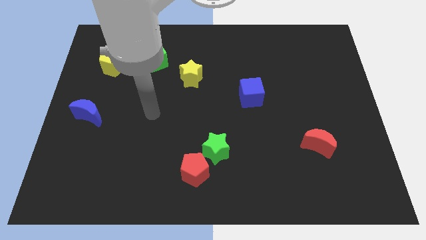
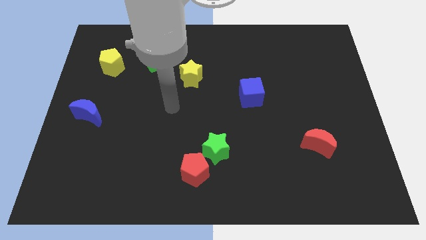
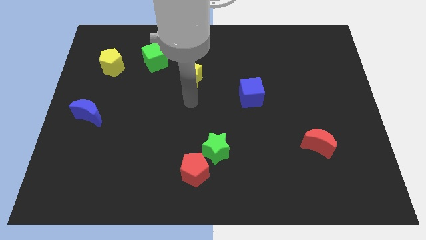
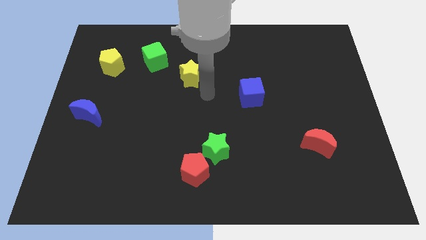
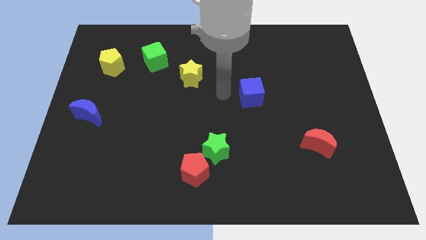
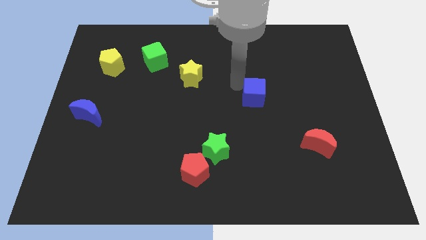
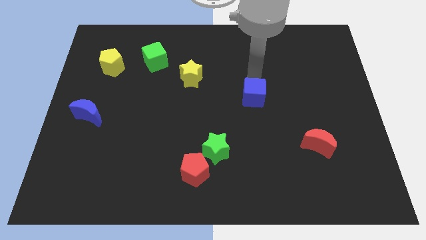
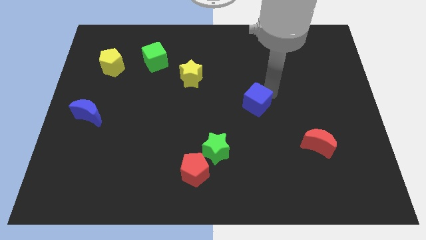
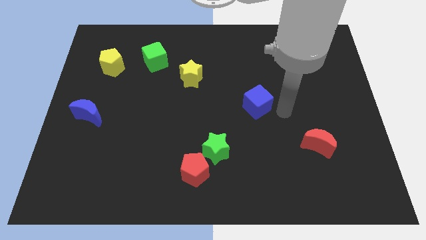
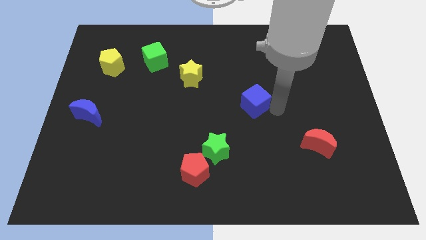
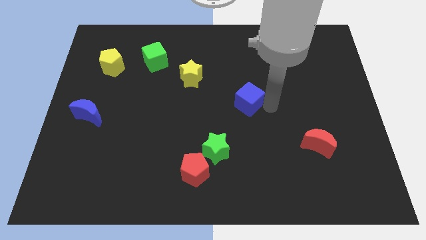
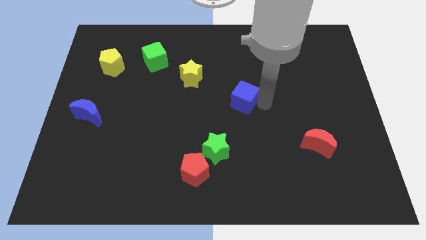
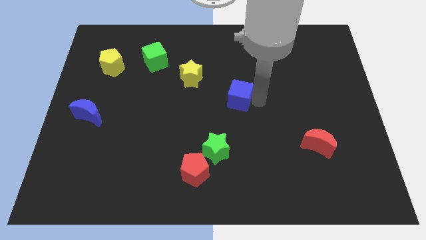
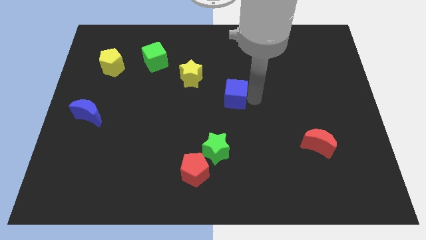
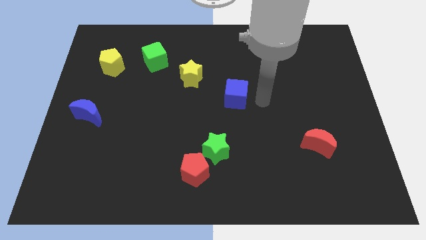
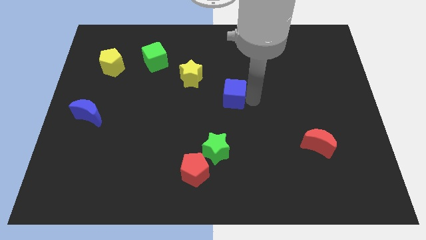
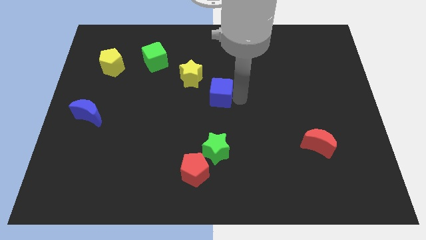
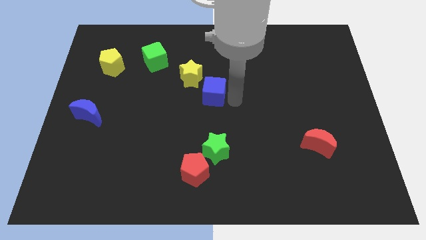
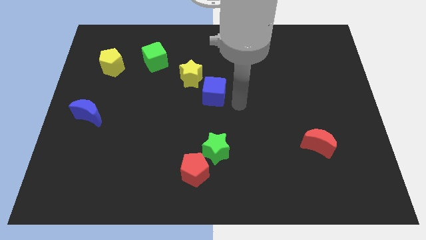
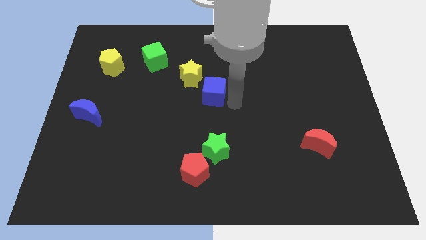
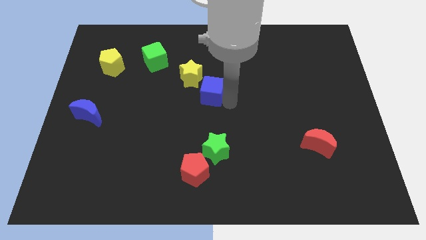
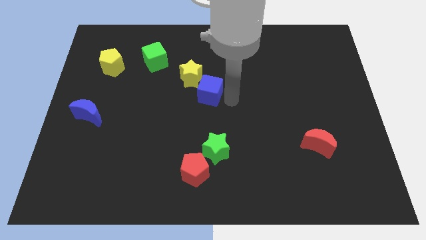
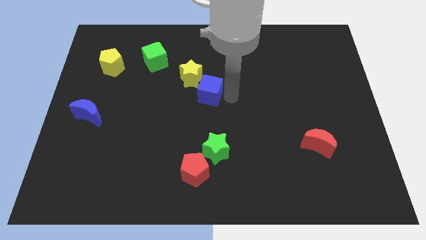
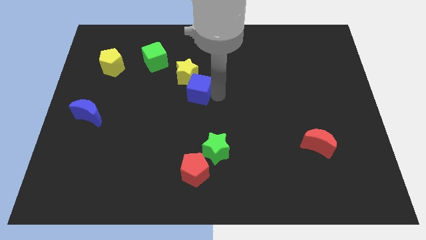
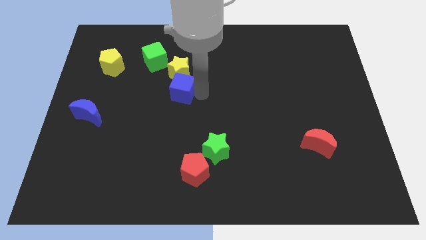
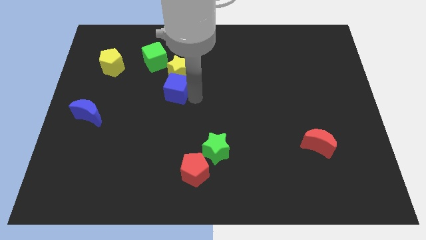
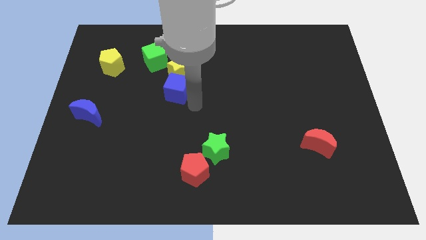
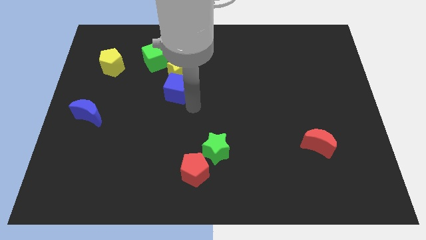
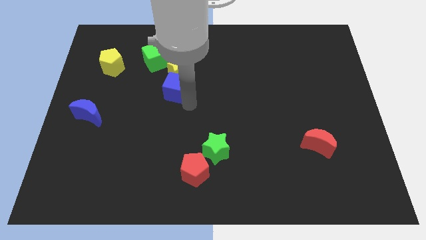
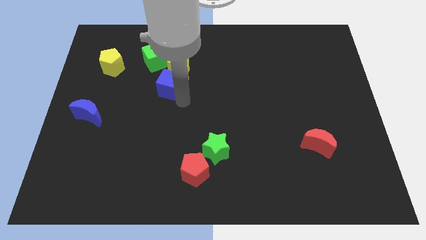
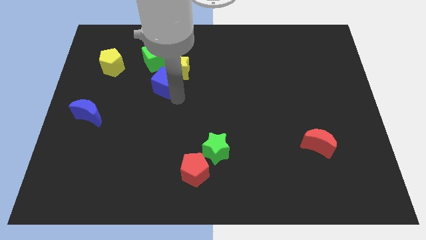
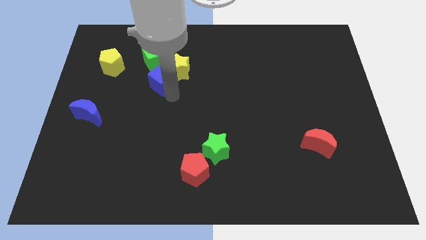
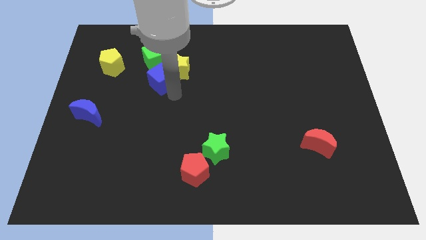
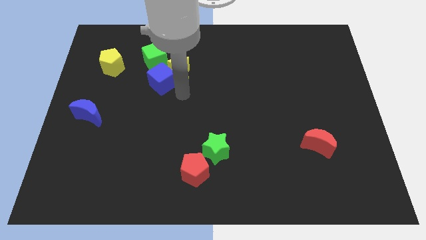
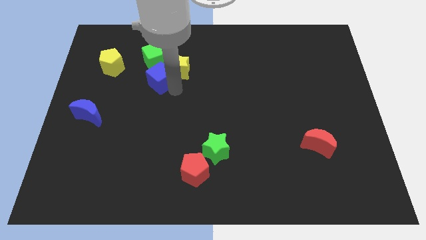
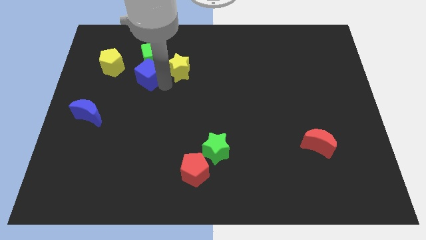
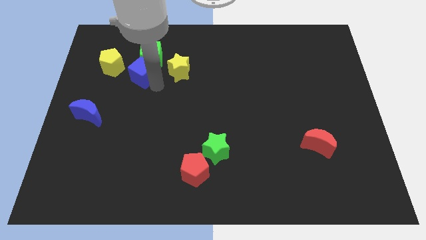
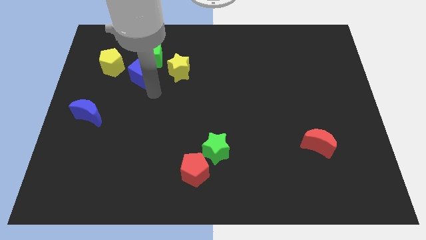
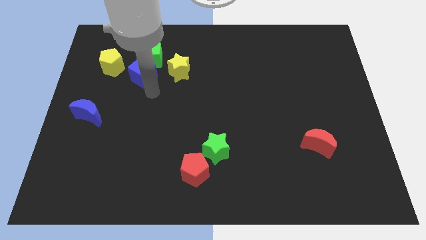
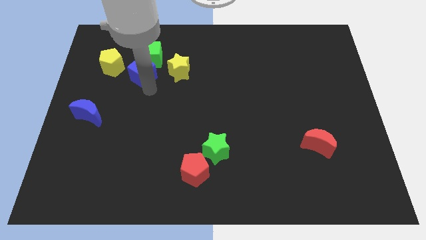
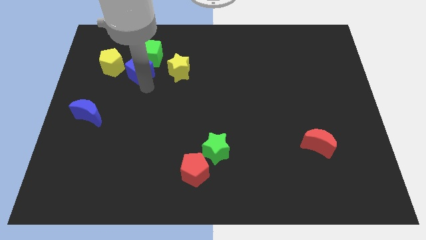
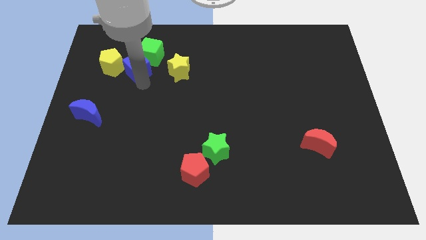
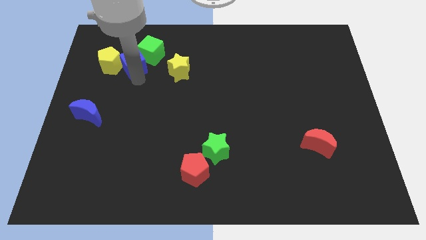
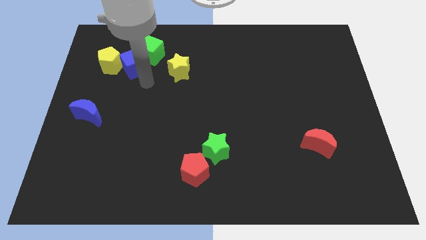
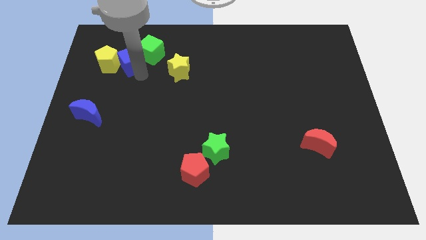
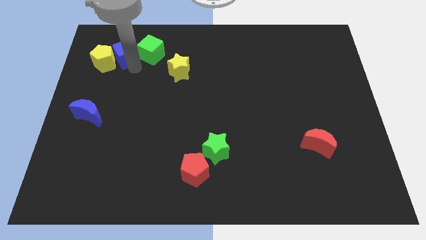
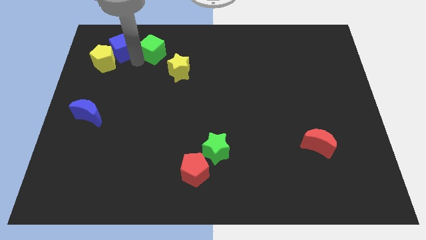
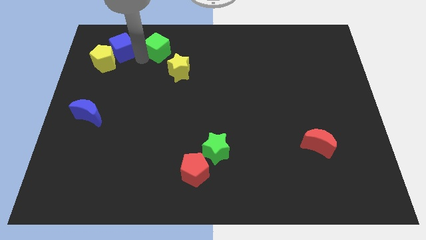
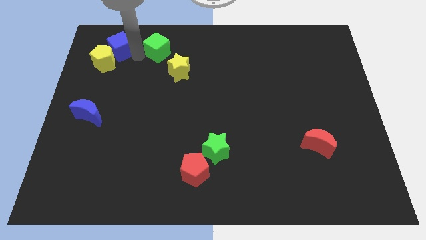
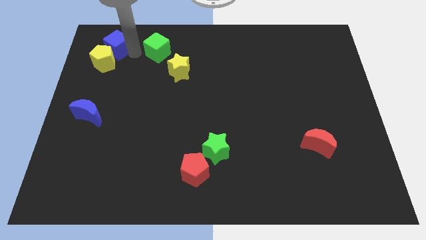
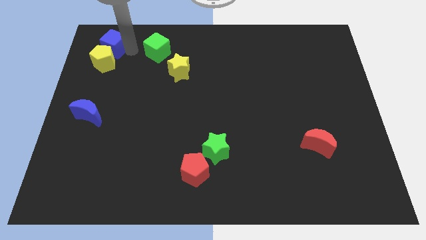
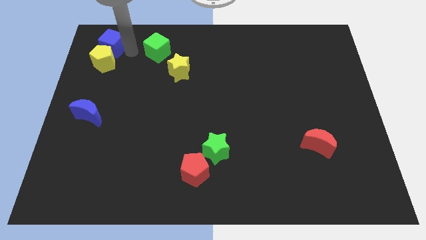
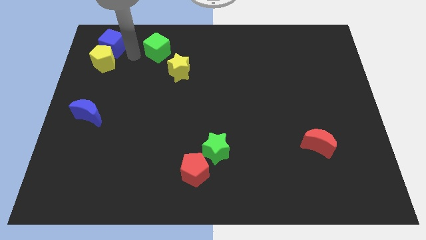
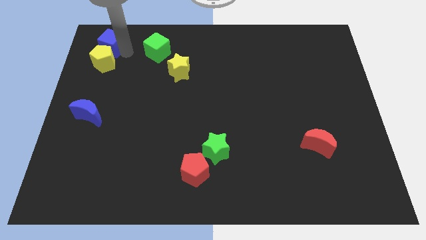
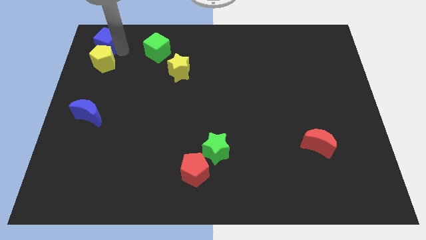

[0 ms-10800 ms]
put the blue cube to the top left

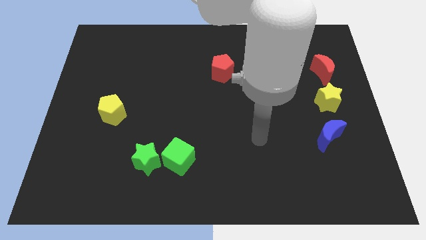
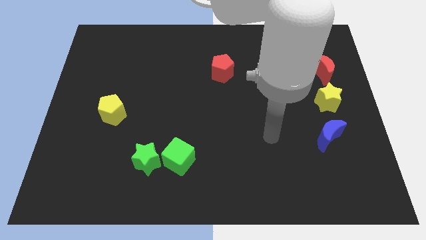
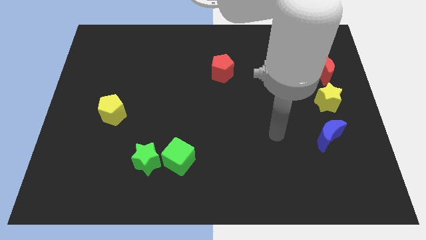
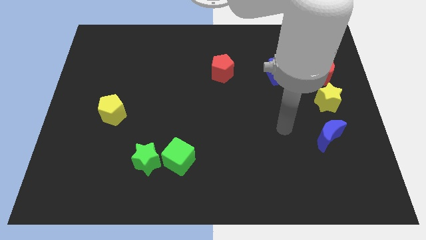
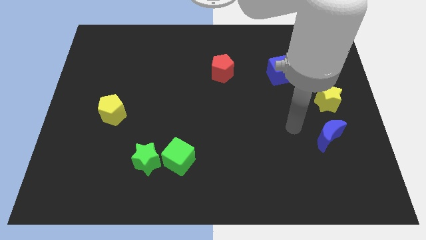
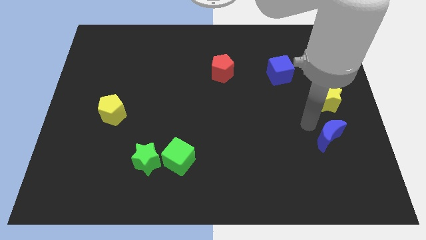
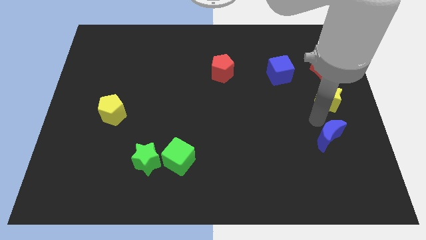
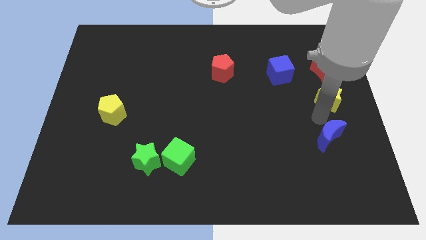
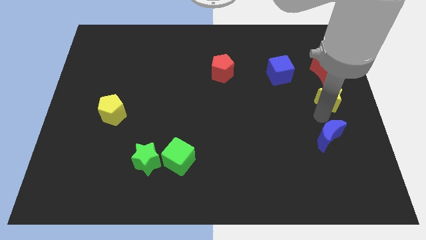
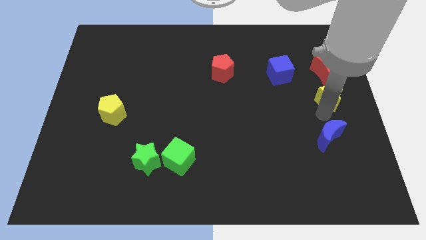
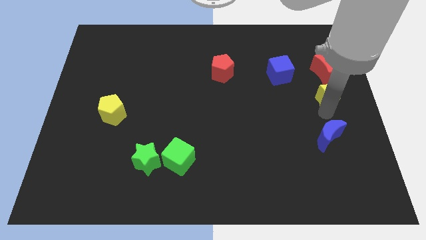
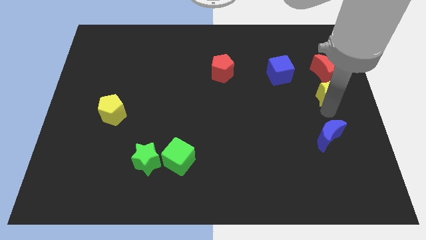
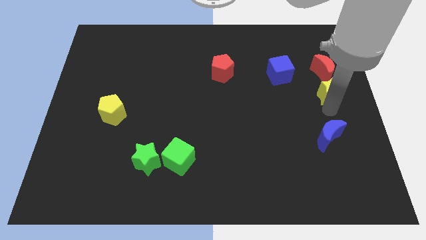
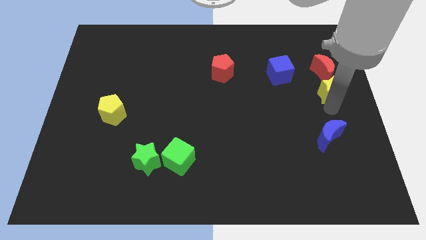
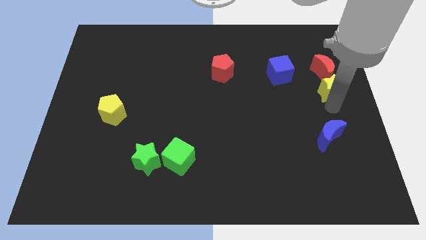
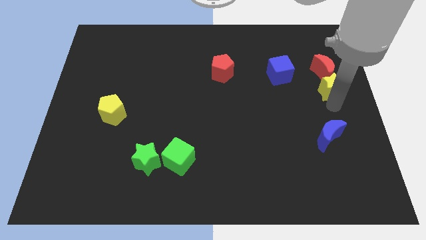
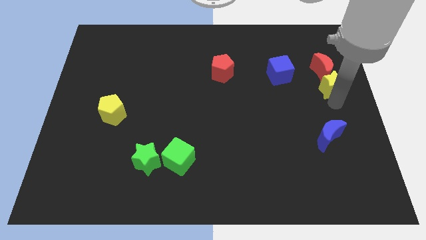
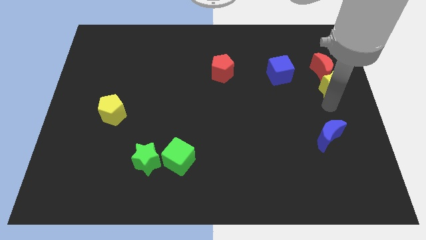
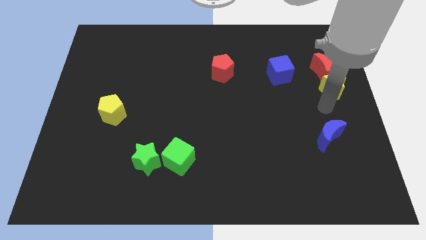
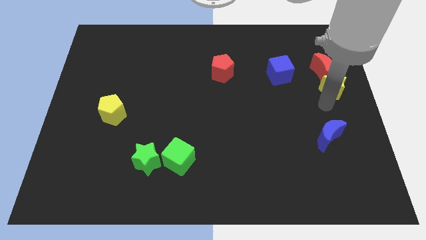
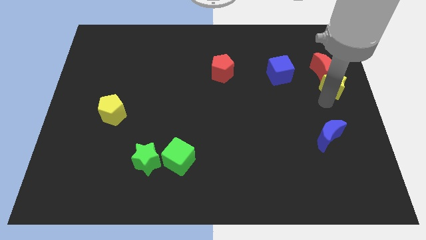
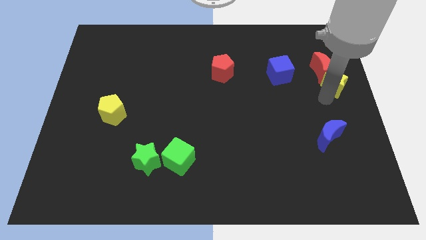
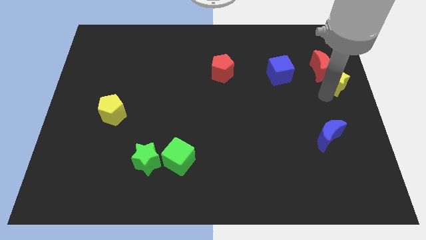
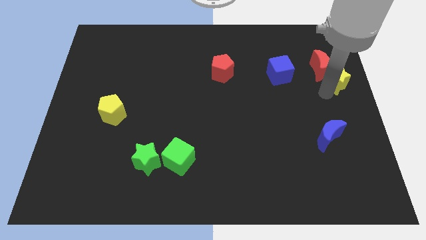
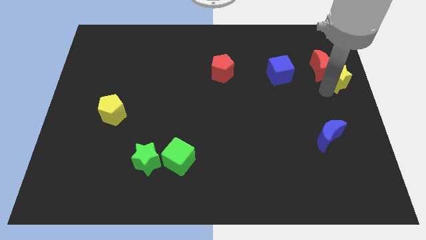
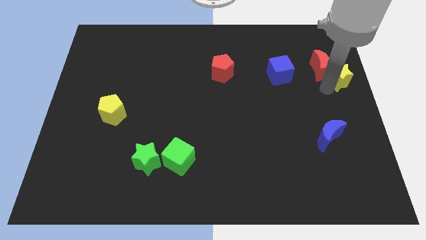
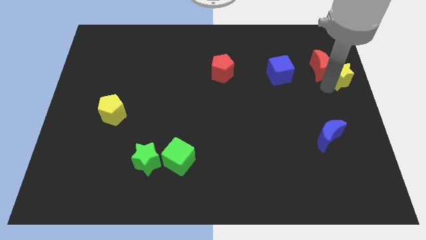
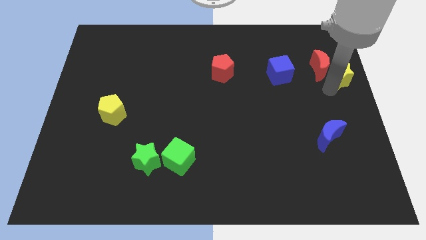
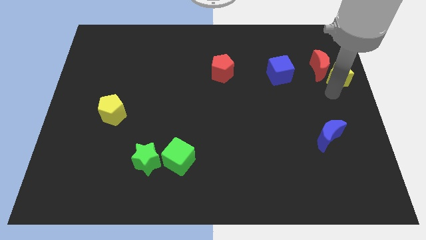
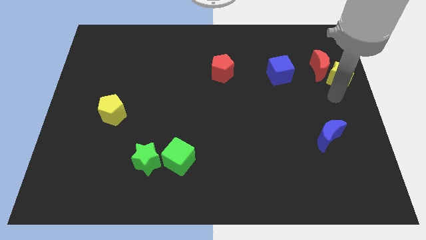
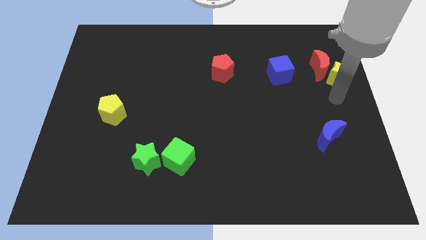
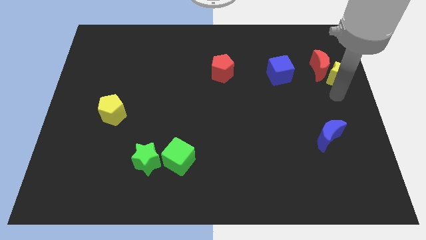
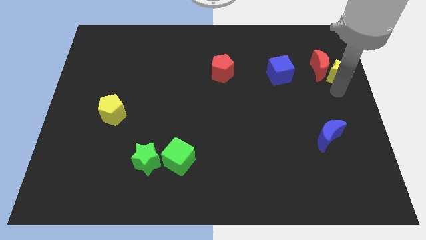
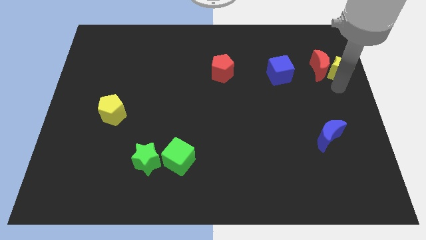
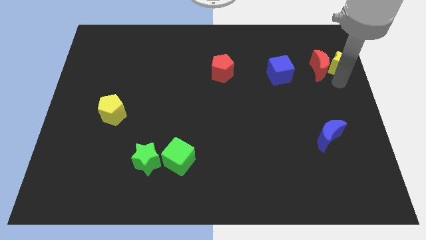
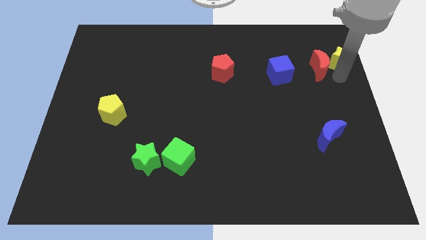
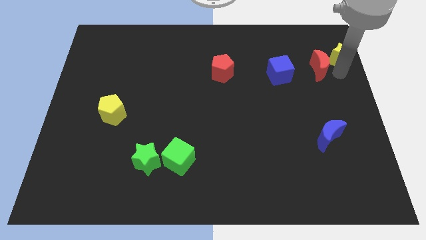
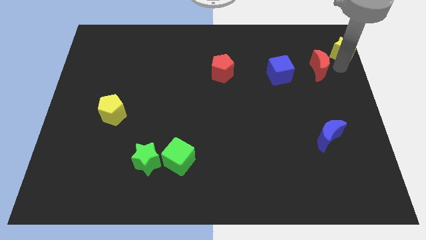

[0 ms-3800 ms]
push the yellow star to the top right
